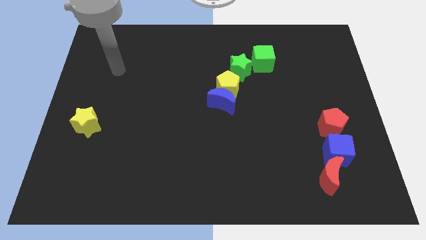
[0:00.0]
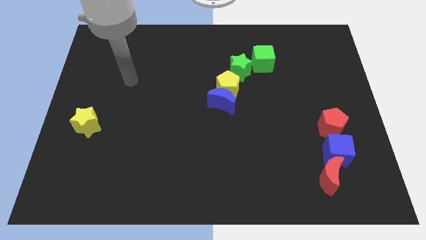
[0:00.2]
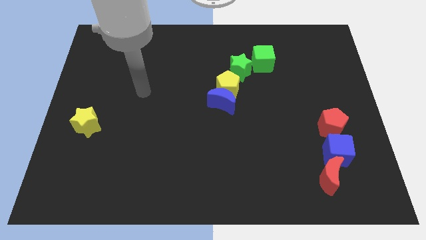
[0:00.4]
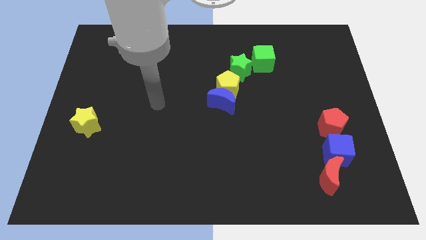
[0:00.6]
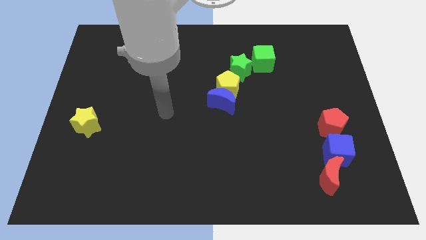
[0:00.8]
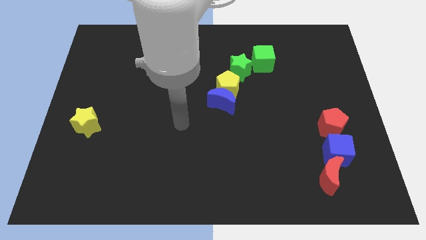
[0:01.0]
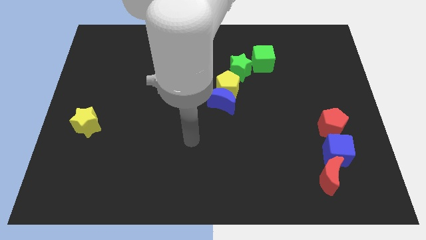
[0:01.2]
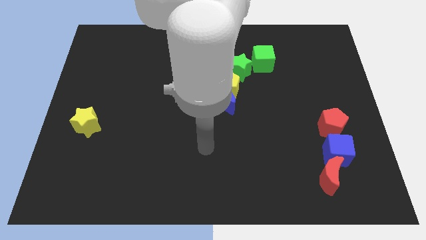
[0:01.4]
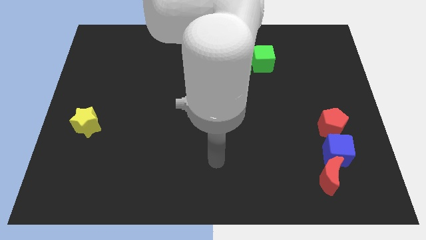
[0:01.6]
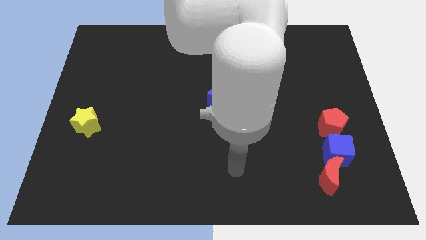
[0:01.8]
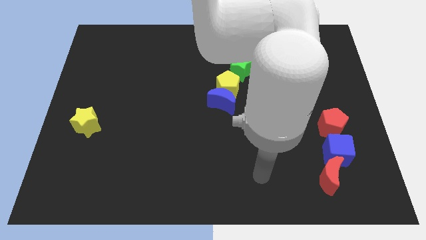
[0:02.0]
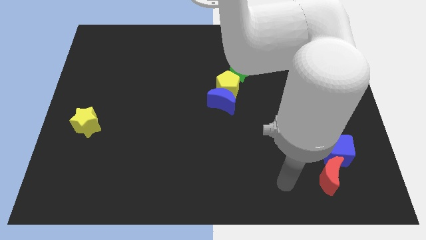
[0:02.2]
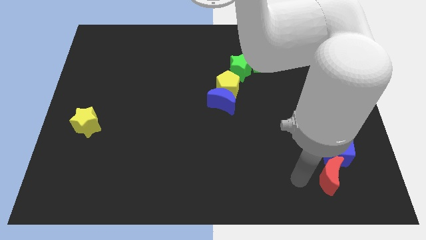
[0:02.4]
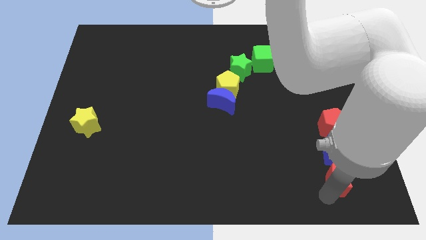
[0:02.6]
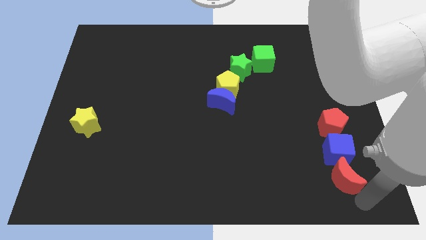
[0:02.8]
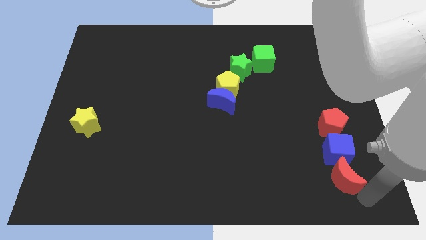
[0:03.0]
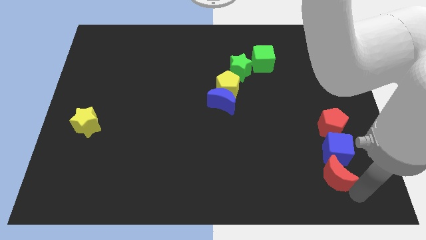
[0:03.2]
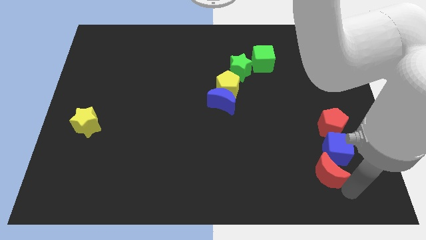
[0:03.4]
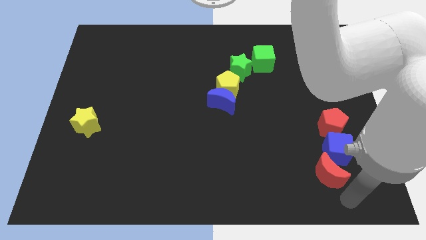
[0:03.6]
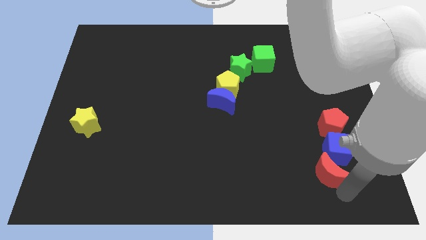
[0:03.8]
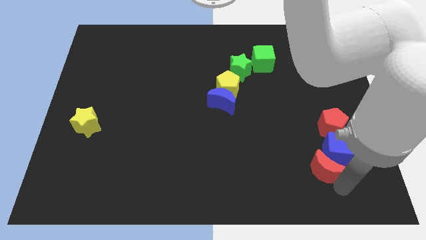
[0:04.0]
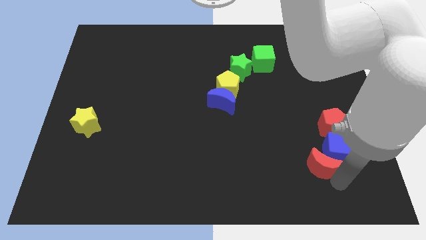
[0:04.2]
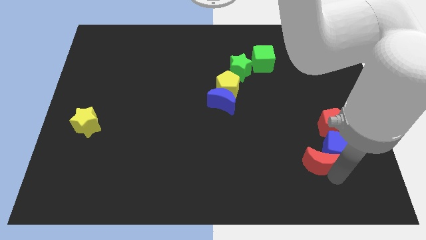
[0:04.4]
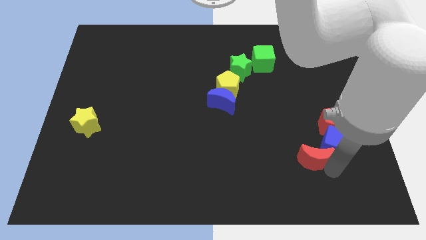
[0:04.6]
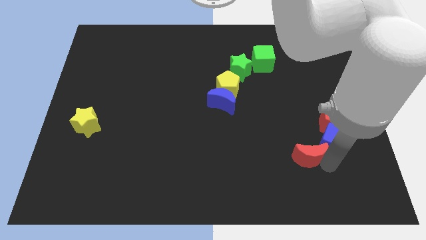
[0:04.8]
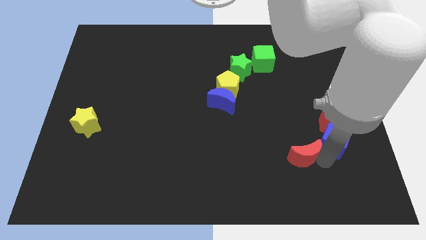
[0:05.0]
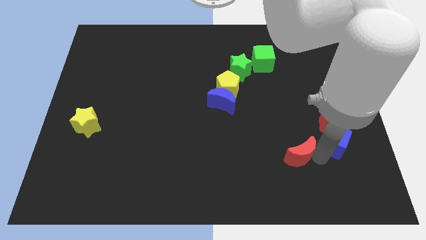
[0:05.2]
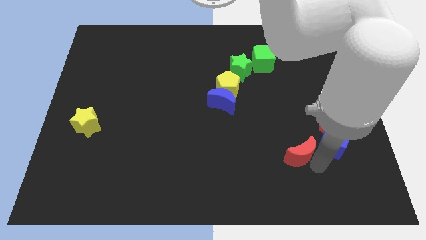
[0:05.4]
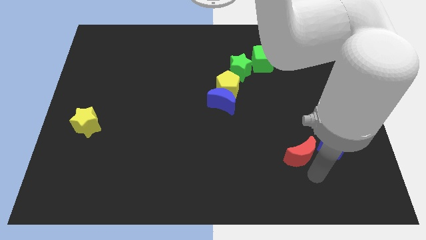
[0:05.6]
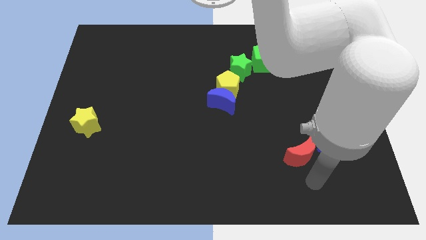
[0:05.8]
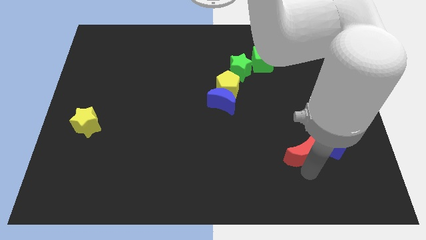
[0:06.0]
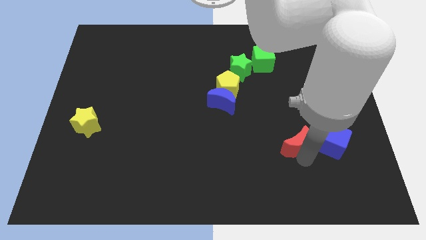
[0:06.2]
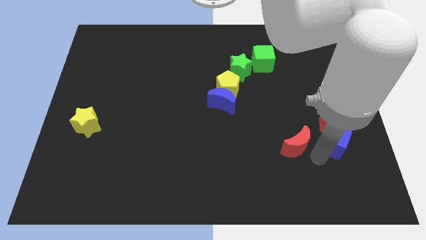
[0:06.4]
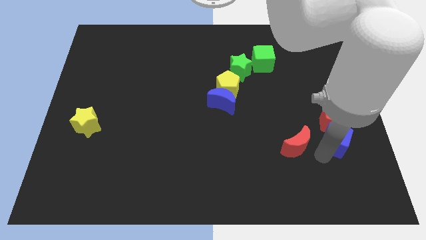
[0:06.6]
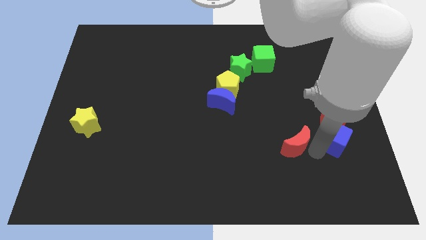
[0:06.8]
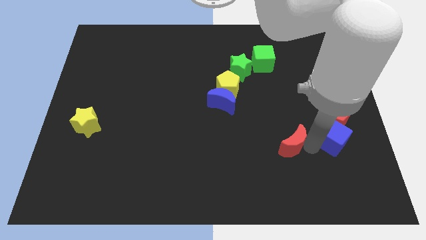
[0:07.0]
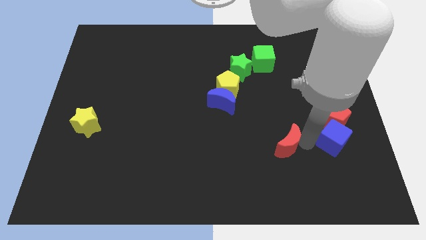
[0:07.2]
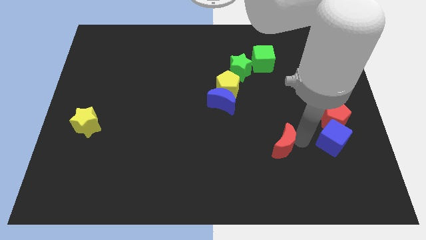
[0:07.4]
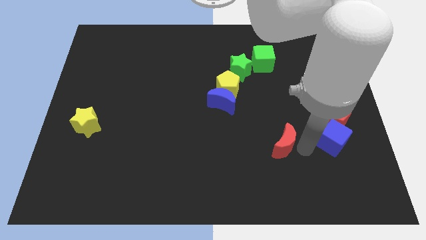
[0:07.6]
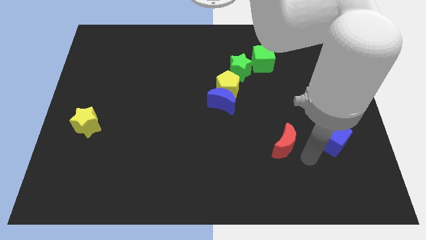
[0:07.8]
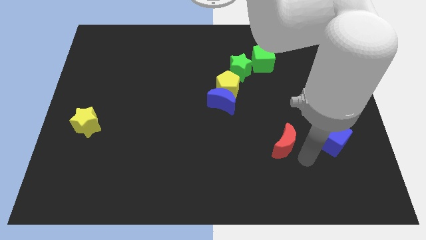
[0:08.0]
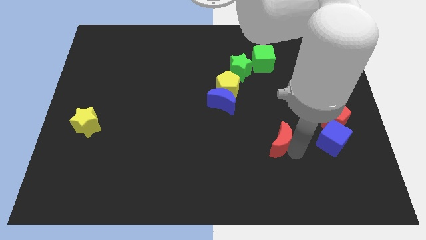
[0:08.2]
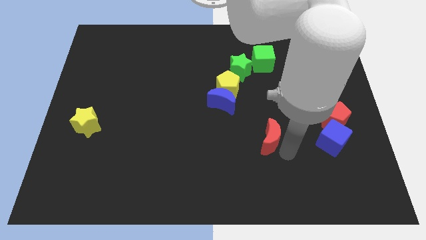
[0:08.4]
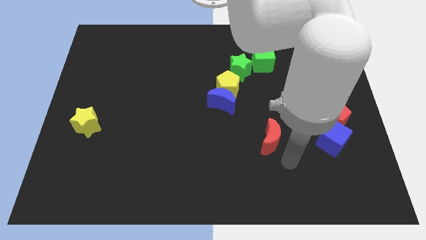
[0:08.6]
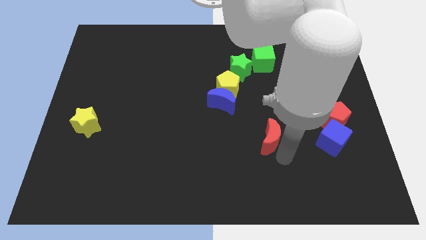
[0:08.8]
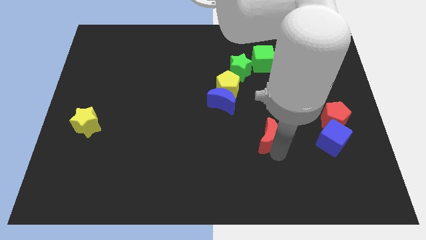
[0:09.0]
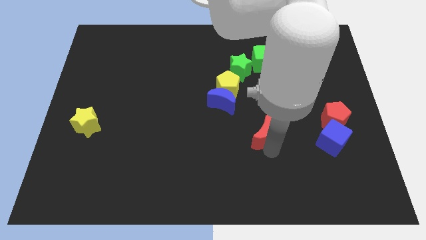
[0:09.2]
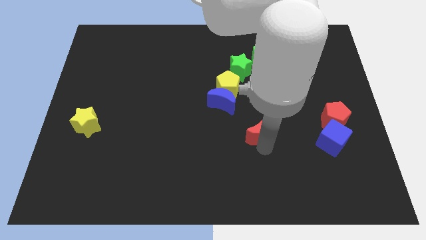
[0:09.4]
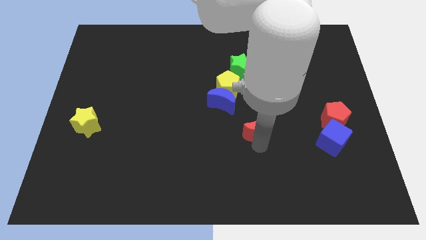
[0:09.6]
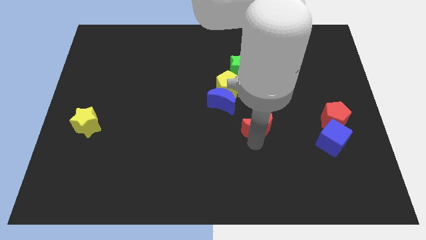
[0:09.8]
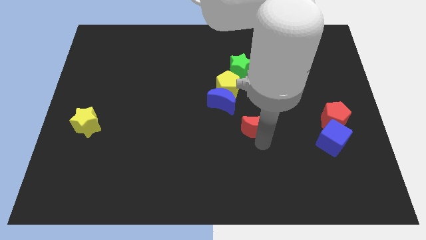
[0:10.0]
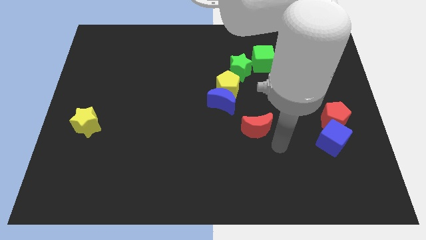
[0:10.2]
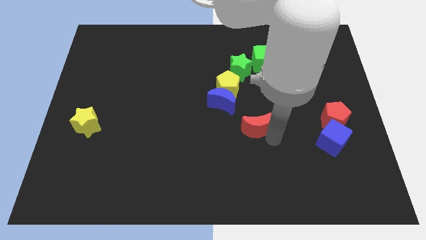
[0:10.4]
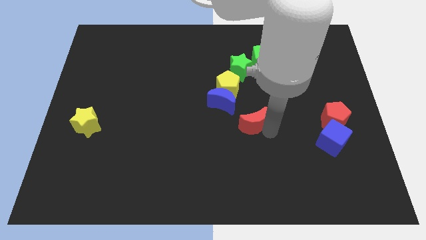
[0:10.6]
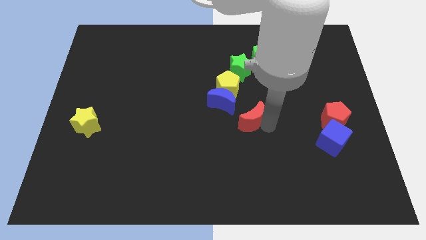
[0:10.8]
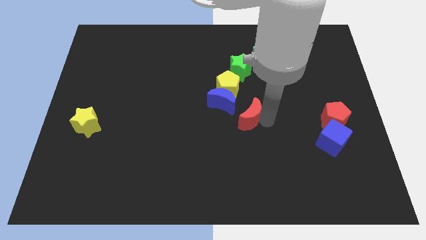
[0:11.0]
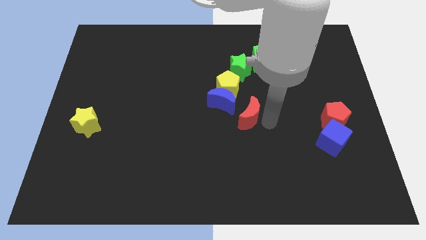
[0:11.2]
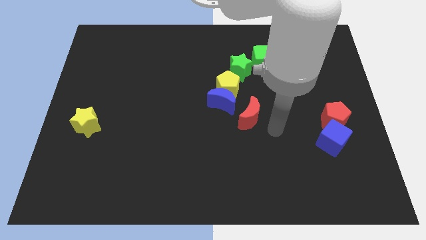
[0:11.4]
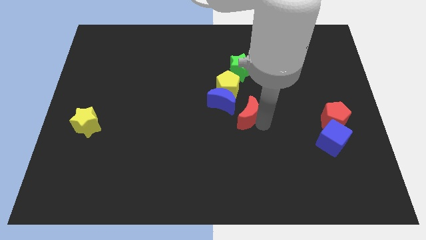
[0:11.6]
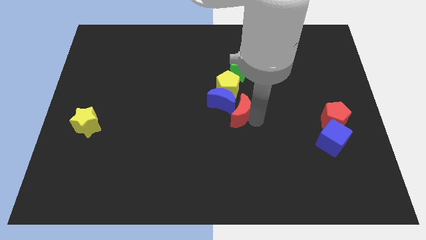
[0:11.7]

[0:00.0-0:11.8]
move the red moon close to the blue moon

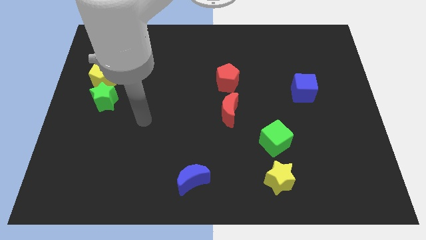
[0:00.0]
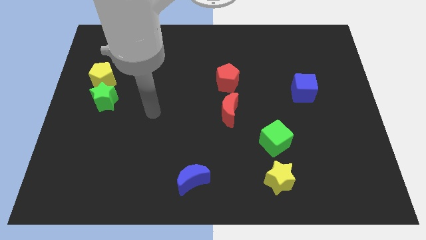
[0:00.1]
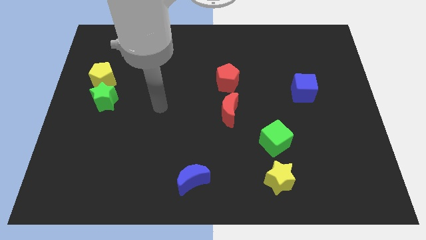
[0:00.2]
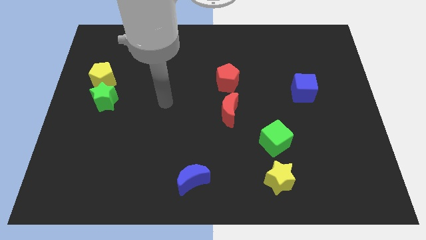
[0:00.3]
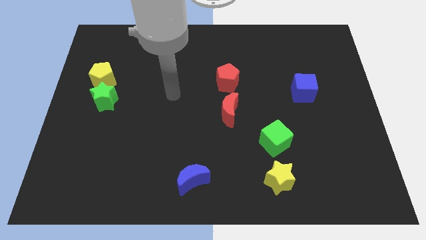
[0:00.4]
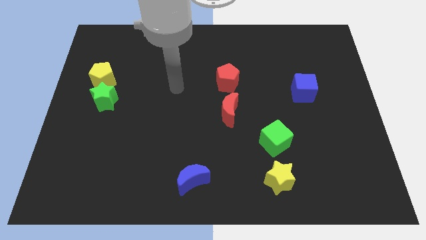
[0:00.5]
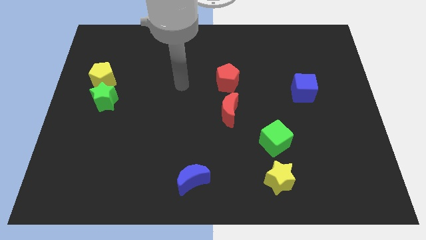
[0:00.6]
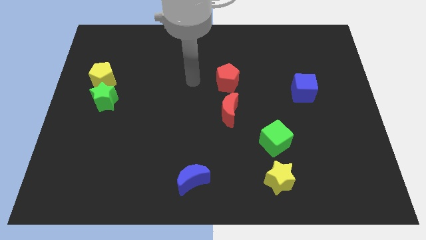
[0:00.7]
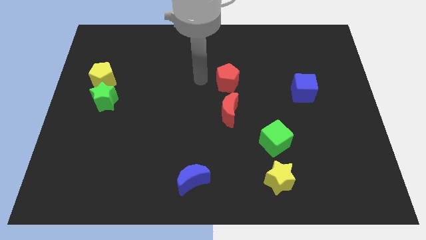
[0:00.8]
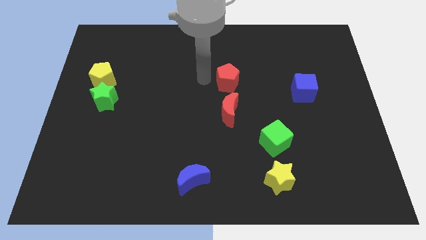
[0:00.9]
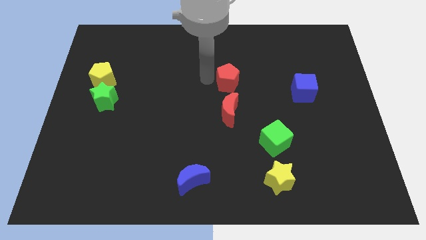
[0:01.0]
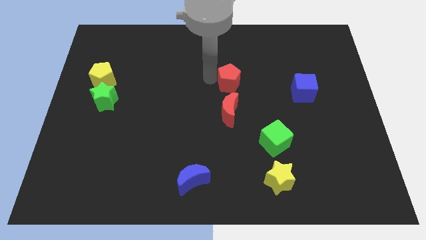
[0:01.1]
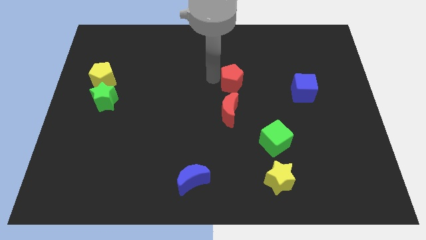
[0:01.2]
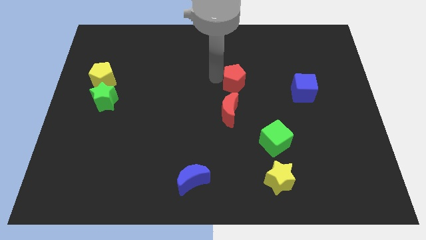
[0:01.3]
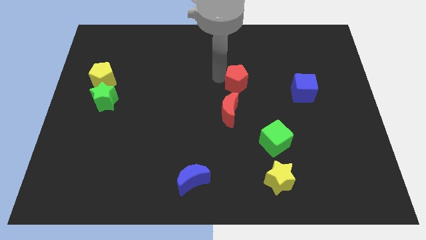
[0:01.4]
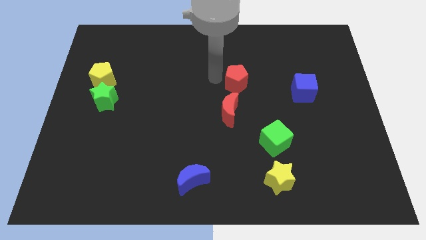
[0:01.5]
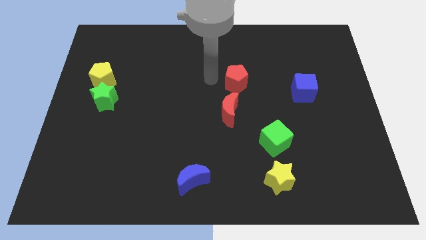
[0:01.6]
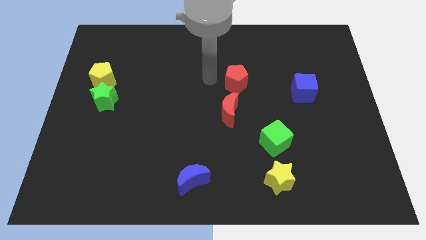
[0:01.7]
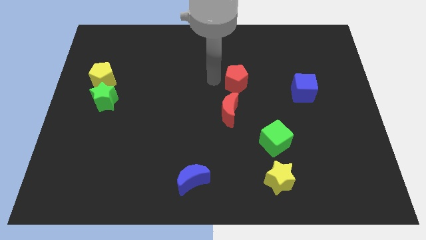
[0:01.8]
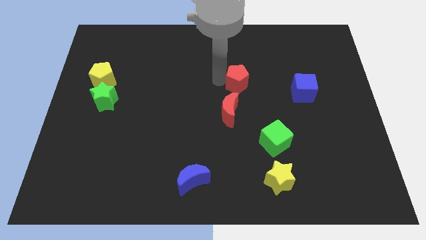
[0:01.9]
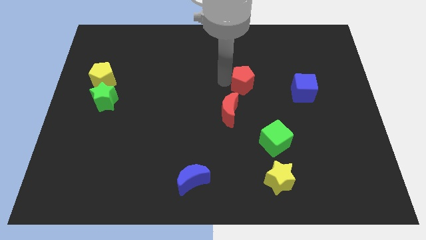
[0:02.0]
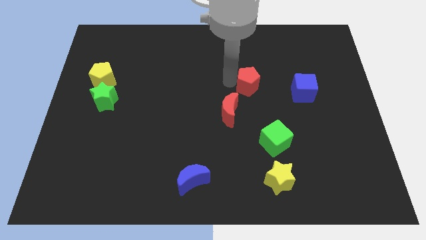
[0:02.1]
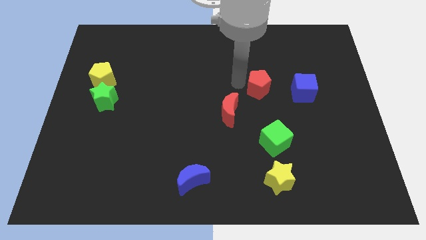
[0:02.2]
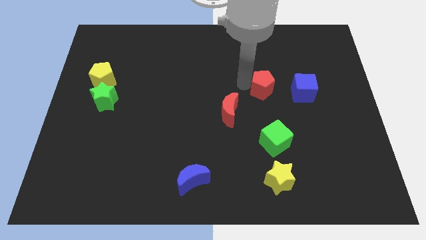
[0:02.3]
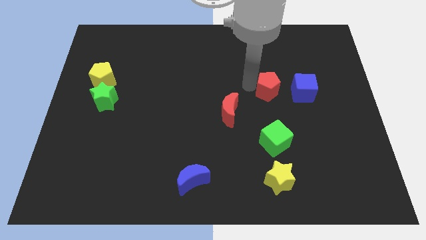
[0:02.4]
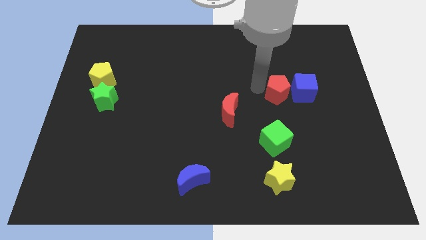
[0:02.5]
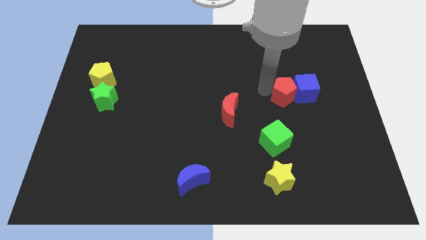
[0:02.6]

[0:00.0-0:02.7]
slide the red pentagon to the blue cube
